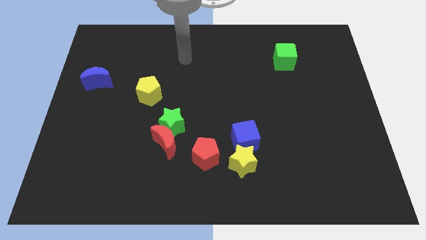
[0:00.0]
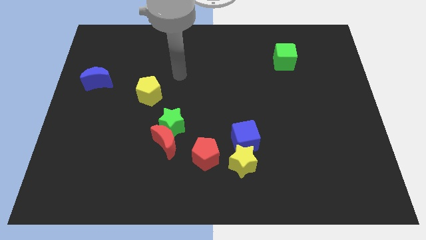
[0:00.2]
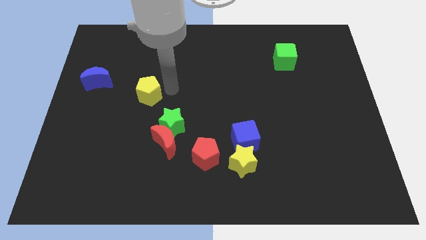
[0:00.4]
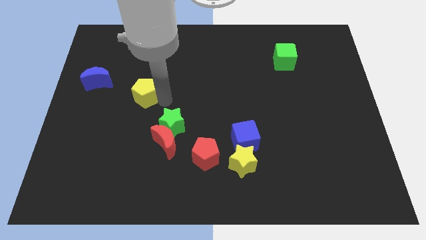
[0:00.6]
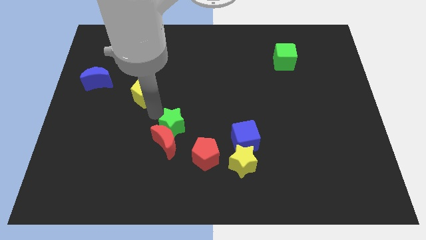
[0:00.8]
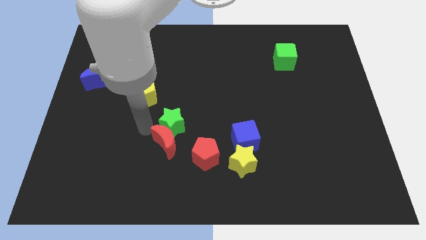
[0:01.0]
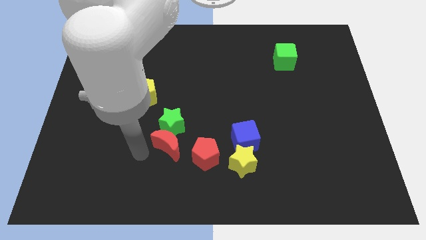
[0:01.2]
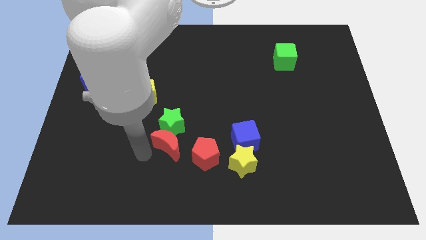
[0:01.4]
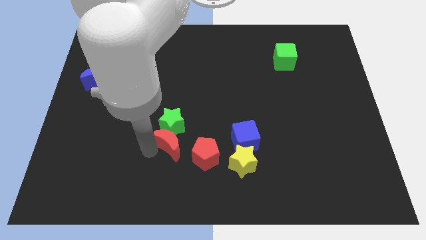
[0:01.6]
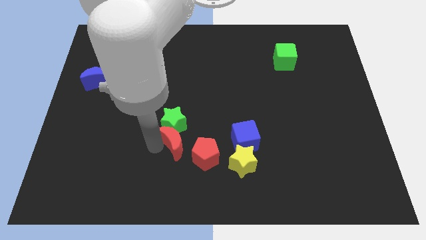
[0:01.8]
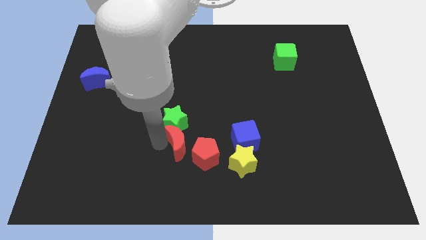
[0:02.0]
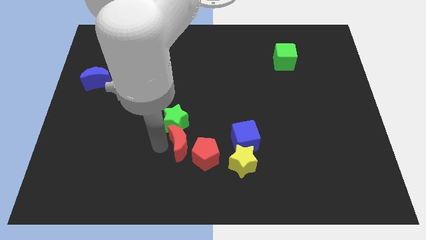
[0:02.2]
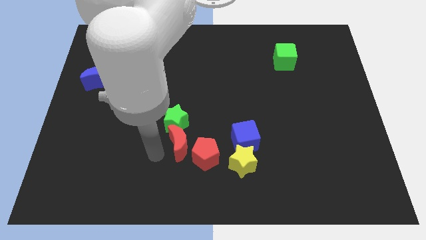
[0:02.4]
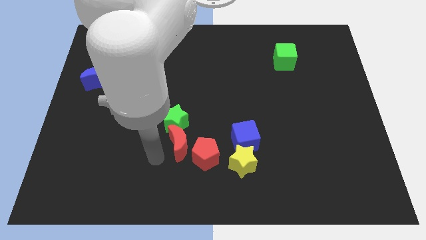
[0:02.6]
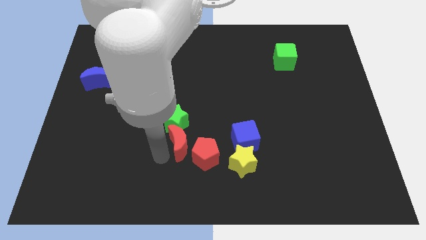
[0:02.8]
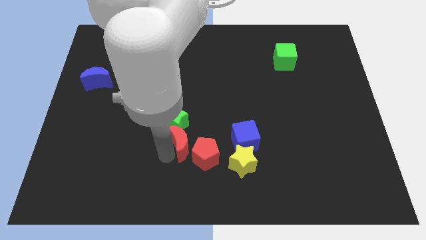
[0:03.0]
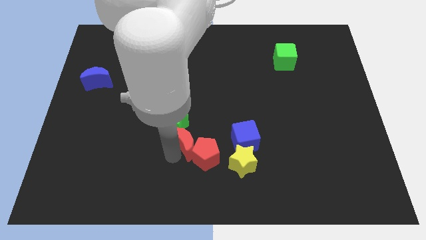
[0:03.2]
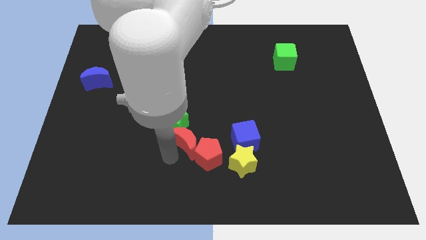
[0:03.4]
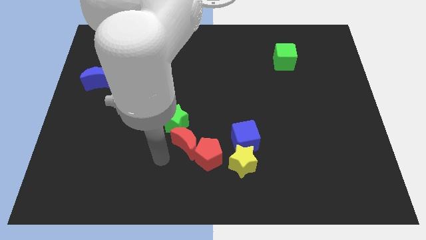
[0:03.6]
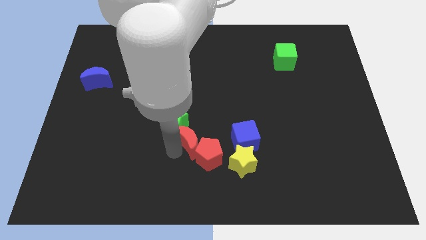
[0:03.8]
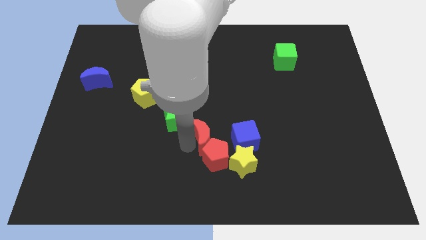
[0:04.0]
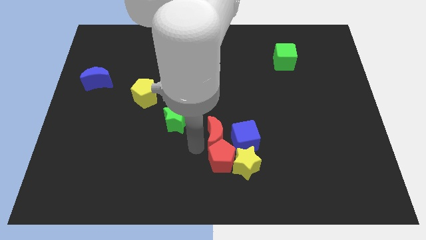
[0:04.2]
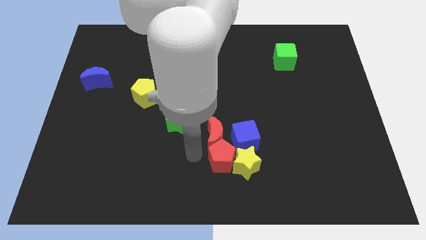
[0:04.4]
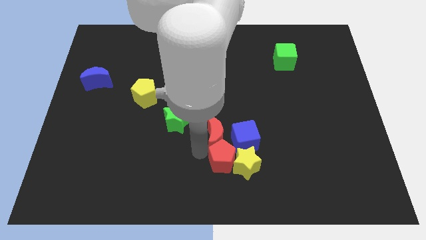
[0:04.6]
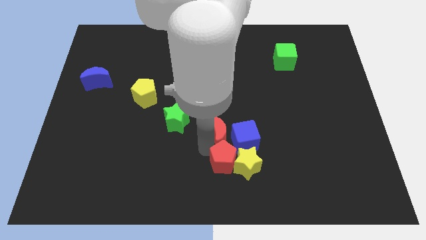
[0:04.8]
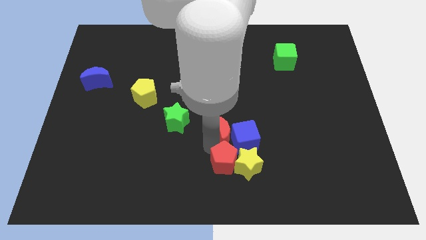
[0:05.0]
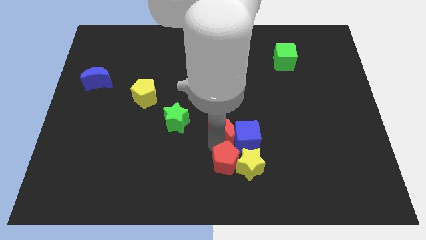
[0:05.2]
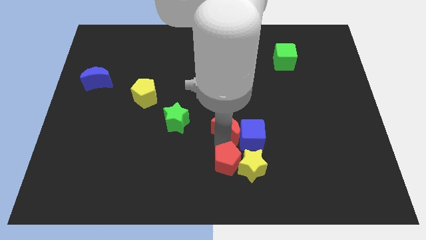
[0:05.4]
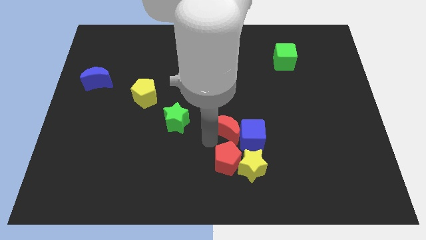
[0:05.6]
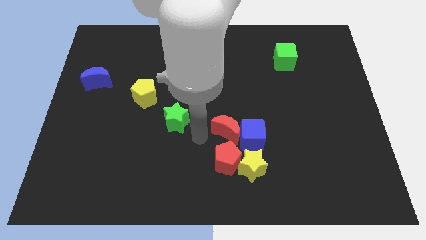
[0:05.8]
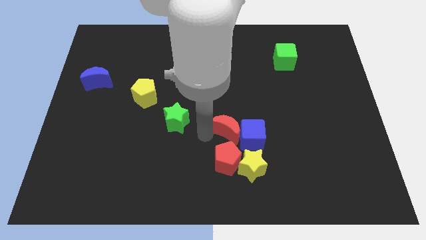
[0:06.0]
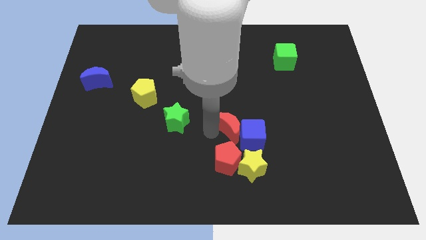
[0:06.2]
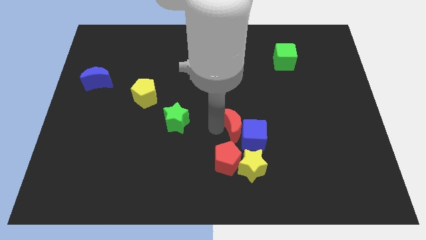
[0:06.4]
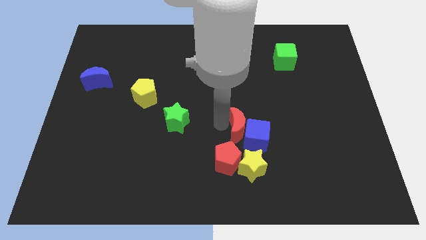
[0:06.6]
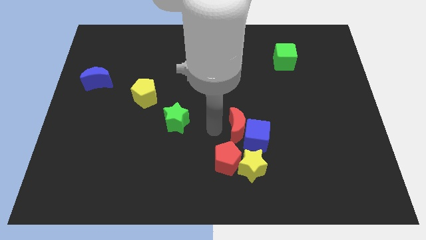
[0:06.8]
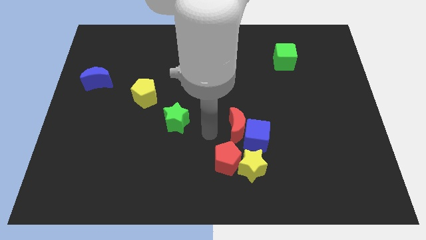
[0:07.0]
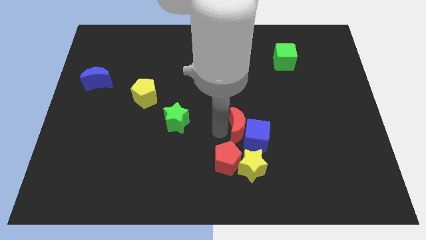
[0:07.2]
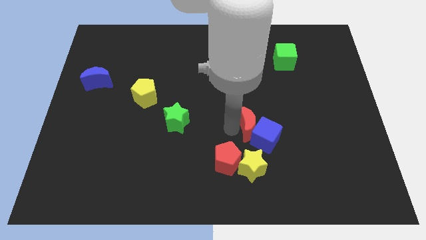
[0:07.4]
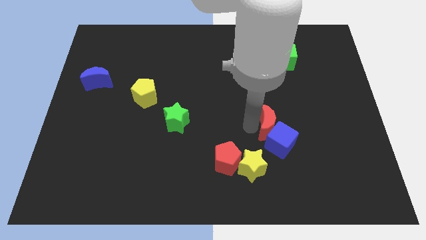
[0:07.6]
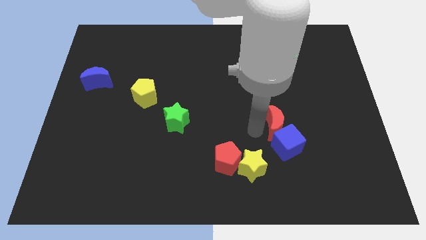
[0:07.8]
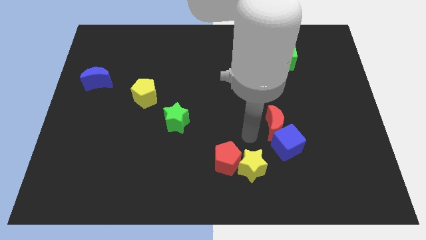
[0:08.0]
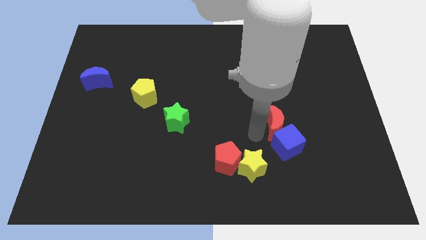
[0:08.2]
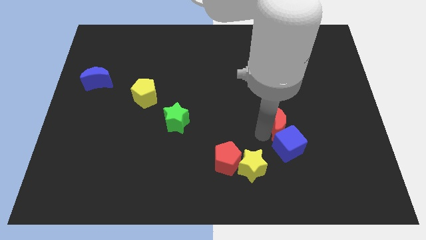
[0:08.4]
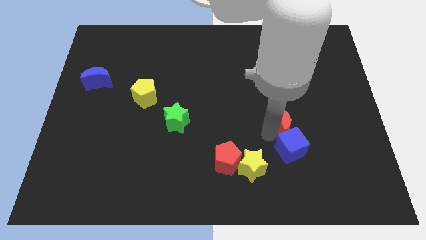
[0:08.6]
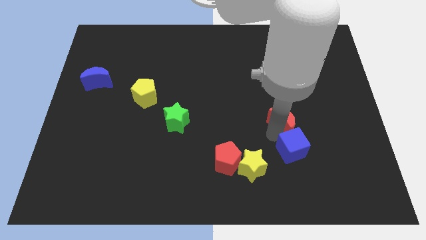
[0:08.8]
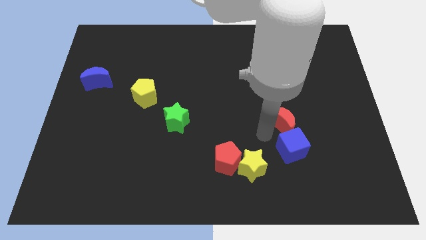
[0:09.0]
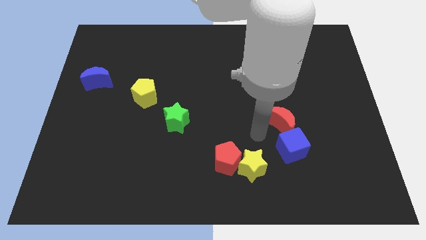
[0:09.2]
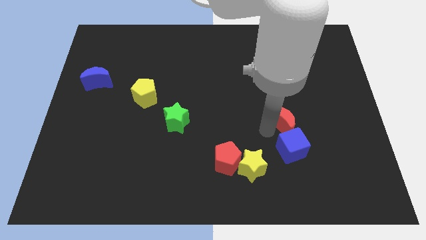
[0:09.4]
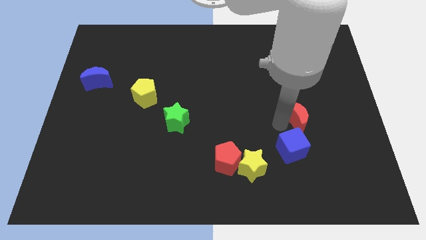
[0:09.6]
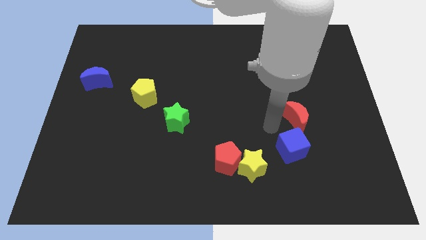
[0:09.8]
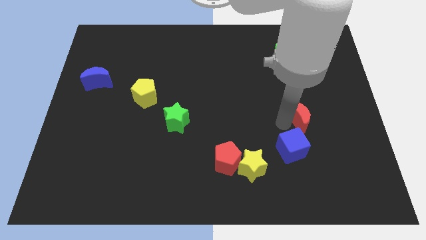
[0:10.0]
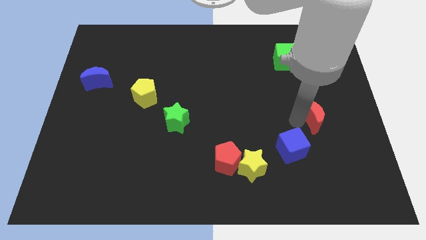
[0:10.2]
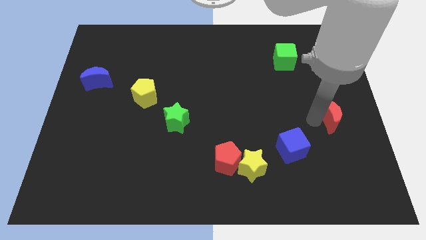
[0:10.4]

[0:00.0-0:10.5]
put the red moon to the right side
